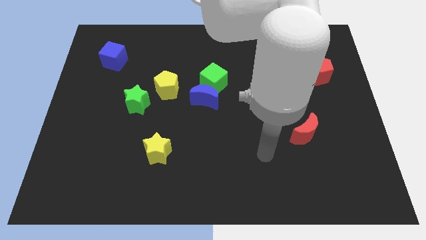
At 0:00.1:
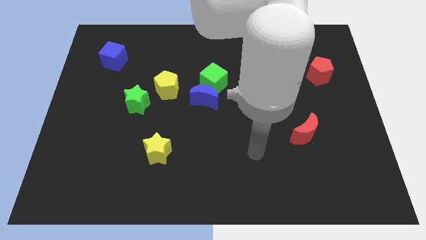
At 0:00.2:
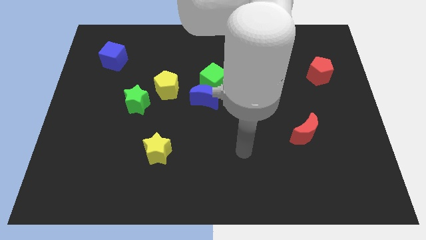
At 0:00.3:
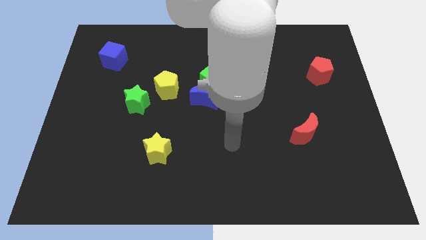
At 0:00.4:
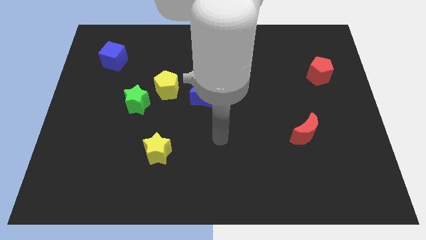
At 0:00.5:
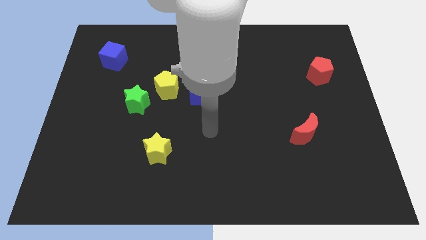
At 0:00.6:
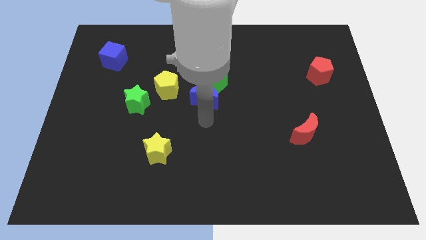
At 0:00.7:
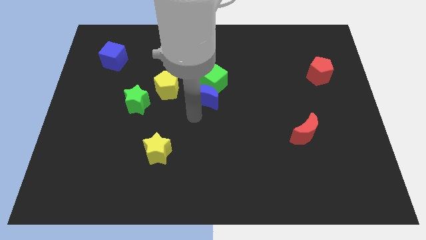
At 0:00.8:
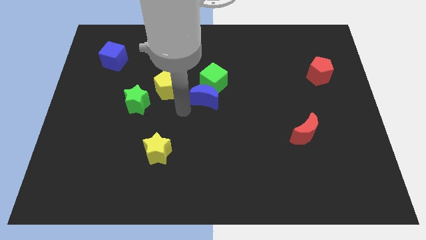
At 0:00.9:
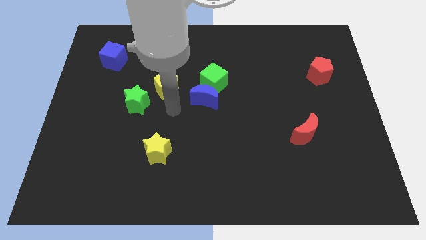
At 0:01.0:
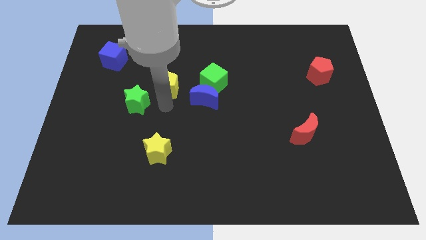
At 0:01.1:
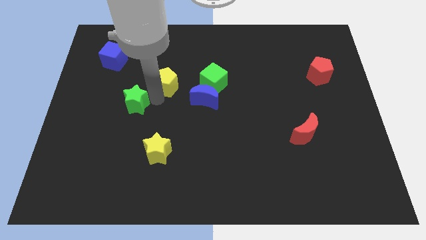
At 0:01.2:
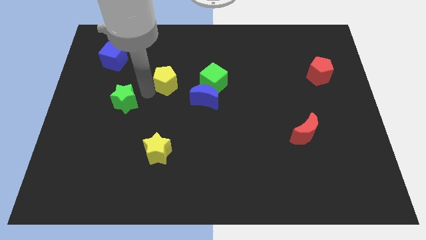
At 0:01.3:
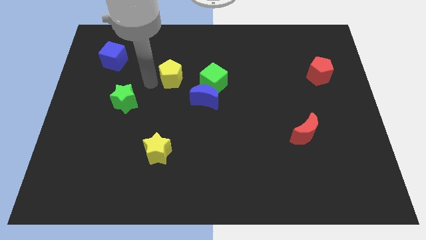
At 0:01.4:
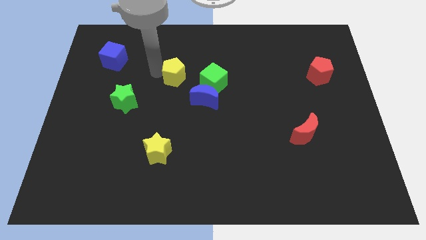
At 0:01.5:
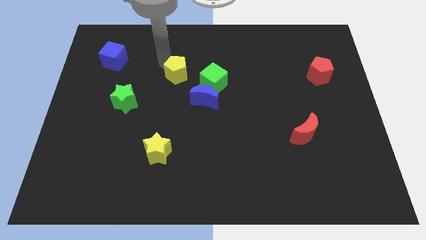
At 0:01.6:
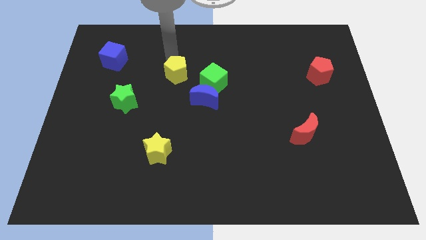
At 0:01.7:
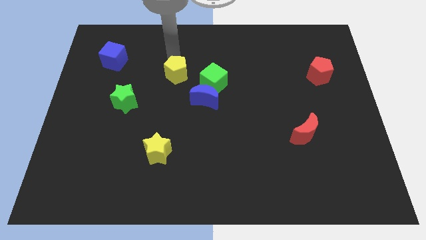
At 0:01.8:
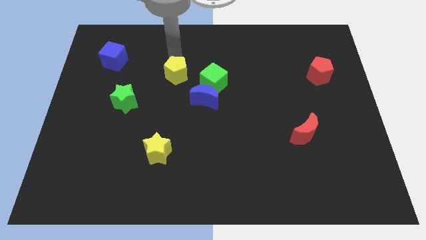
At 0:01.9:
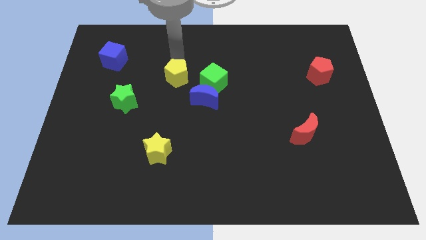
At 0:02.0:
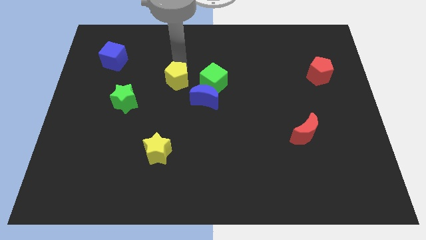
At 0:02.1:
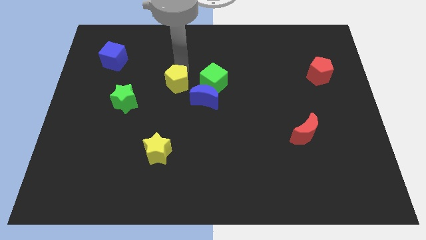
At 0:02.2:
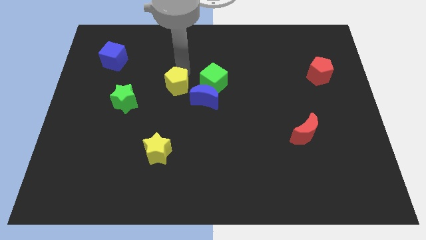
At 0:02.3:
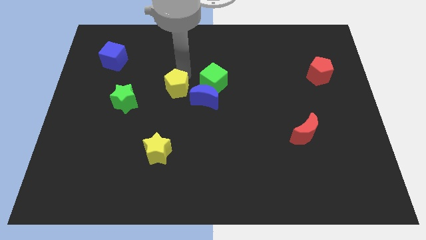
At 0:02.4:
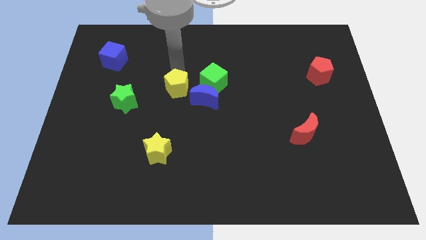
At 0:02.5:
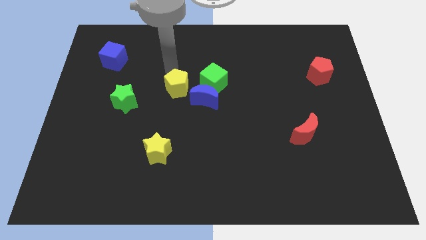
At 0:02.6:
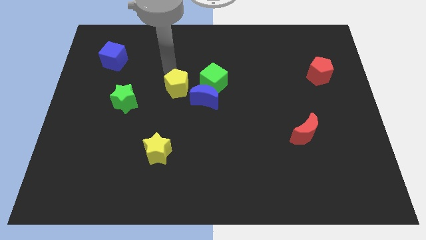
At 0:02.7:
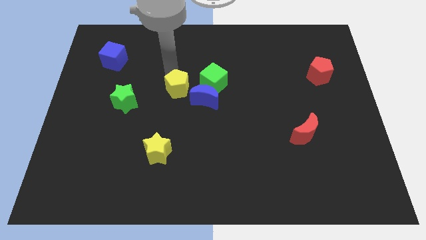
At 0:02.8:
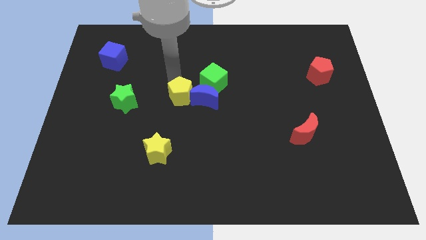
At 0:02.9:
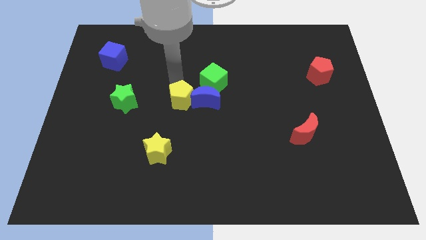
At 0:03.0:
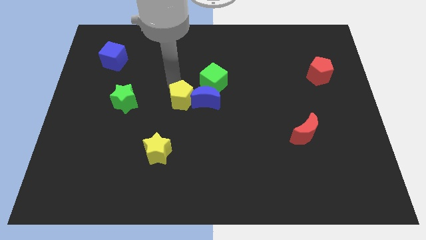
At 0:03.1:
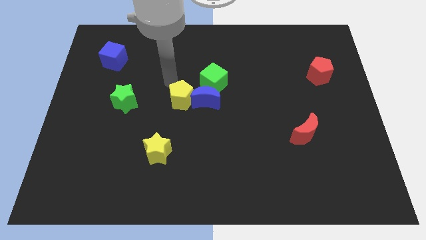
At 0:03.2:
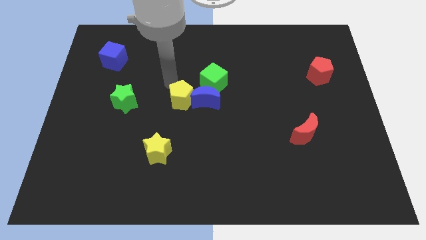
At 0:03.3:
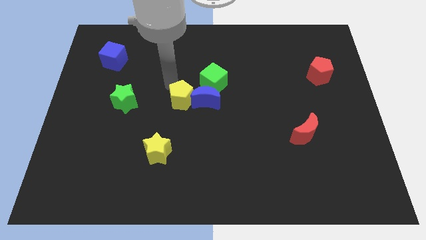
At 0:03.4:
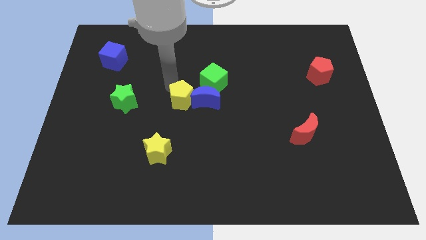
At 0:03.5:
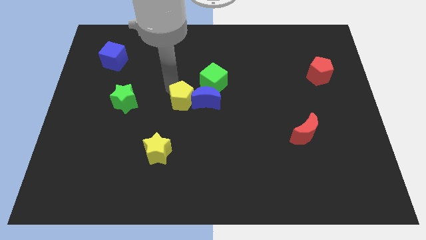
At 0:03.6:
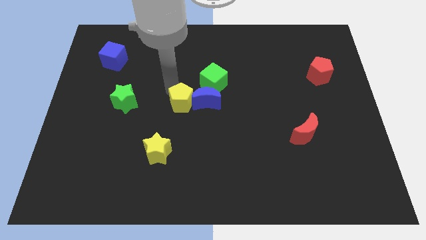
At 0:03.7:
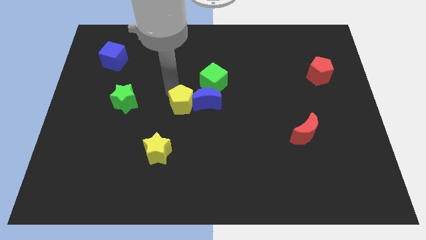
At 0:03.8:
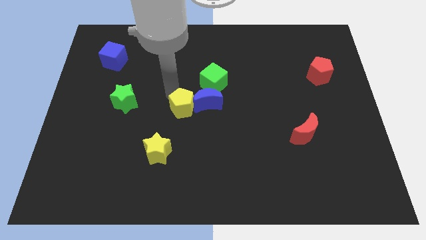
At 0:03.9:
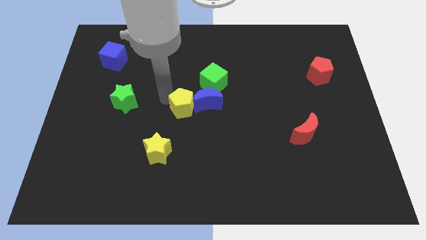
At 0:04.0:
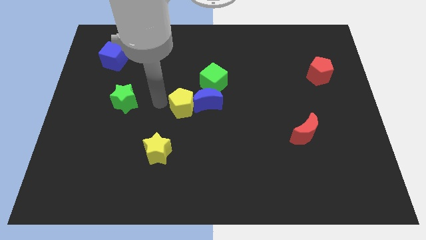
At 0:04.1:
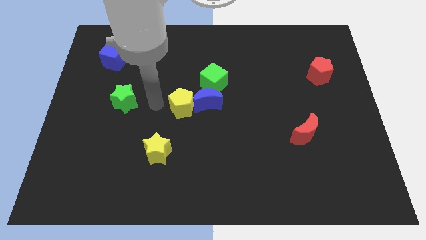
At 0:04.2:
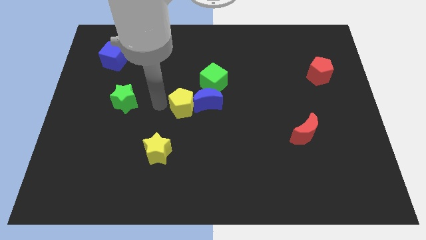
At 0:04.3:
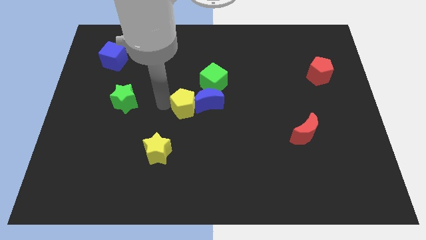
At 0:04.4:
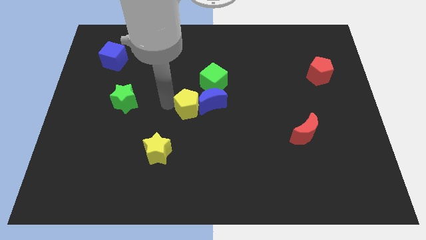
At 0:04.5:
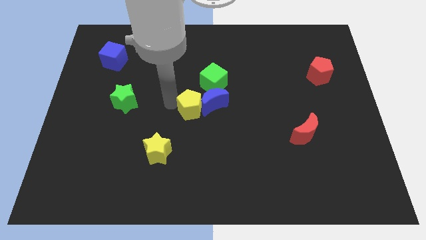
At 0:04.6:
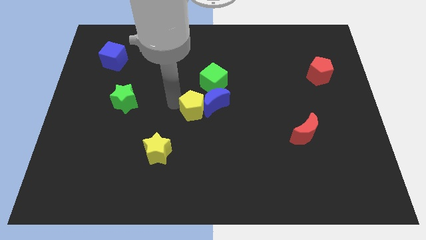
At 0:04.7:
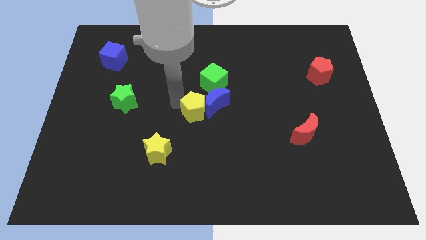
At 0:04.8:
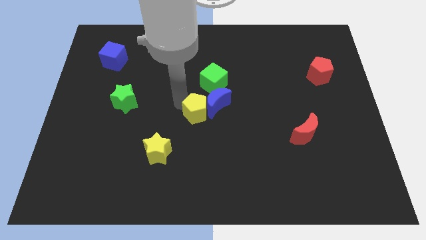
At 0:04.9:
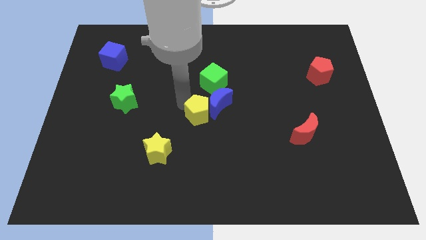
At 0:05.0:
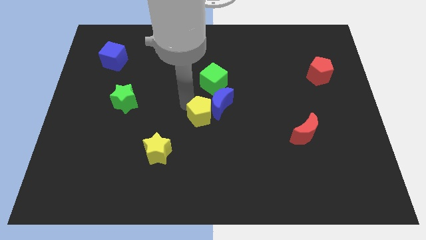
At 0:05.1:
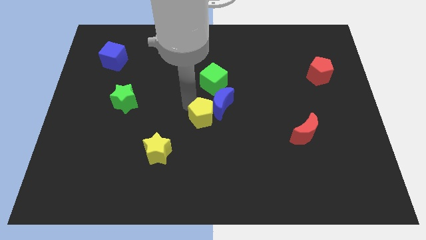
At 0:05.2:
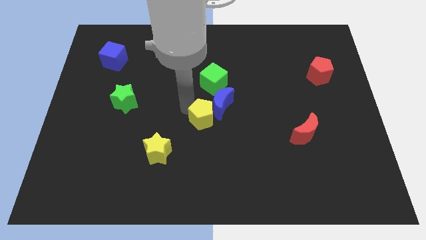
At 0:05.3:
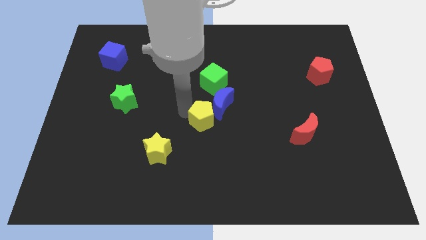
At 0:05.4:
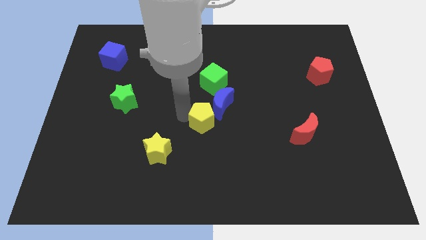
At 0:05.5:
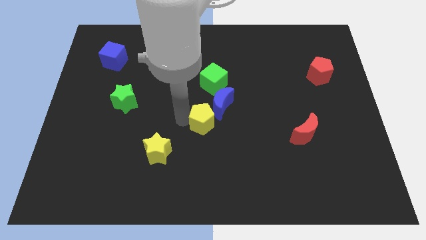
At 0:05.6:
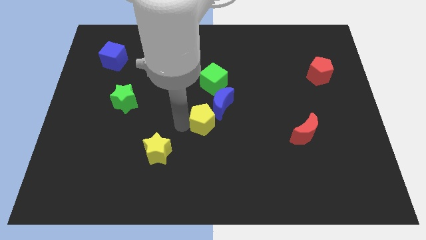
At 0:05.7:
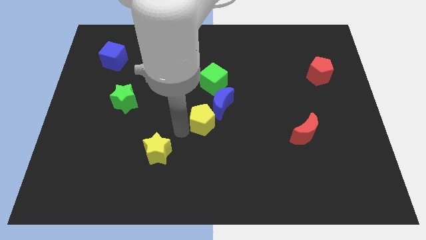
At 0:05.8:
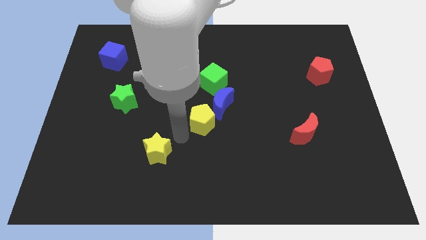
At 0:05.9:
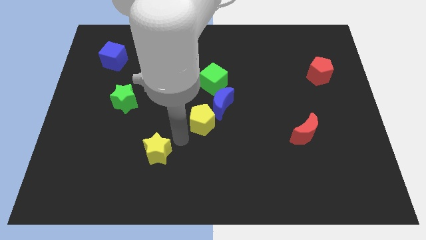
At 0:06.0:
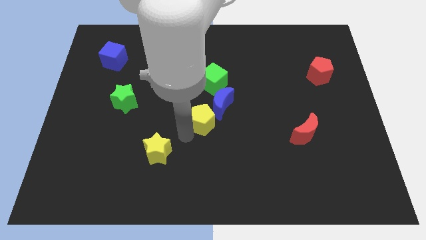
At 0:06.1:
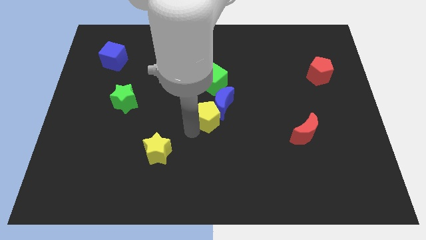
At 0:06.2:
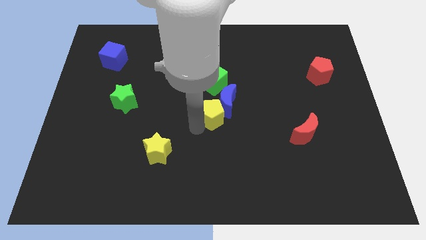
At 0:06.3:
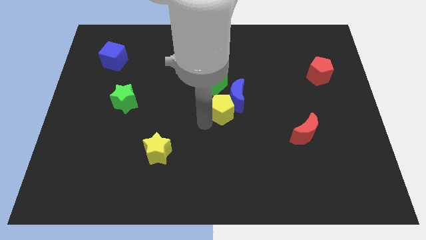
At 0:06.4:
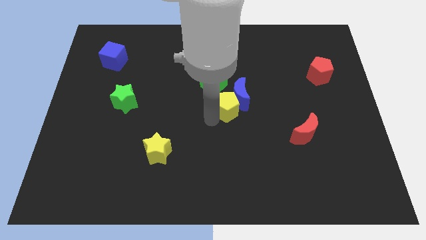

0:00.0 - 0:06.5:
slide the yellow pentagon to the bottom right side of the green cube

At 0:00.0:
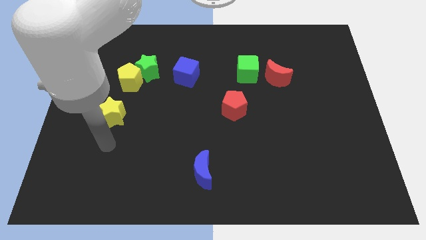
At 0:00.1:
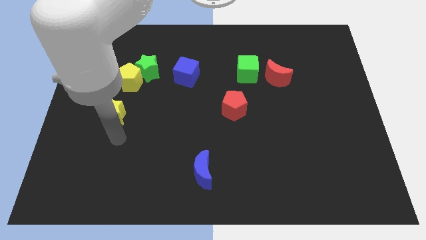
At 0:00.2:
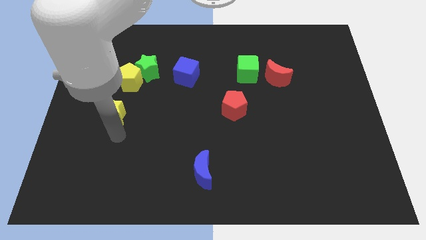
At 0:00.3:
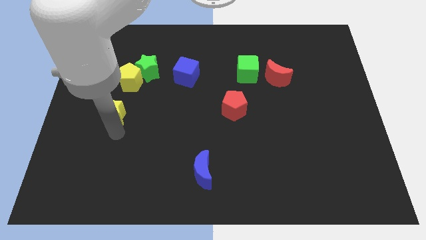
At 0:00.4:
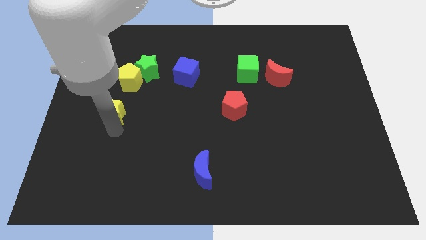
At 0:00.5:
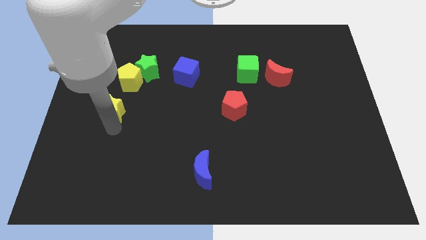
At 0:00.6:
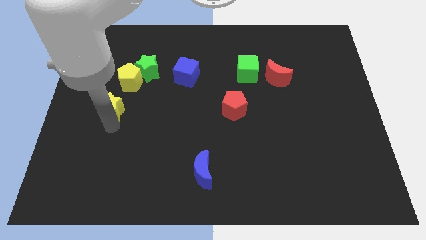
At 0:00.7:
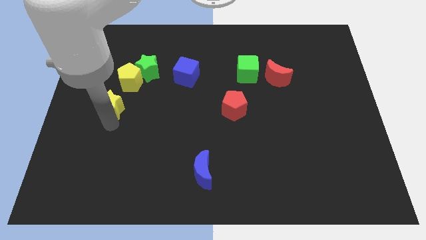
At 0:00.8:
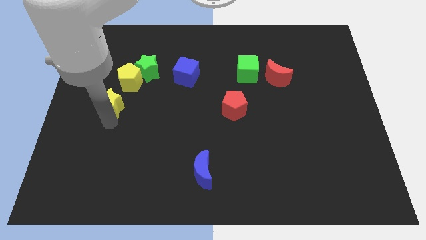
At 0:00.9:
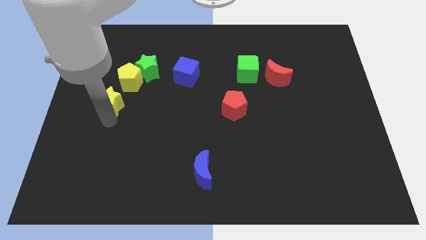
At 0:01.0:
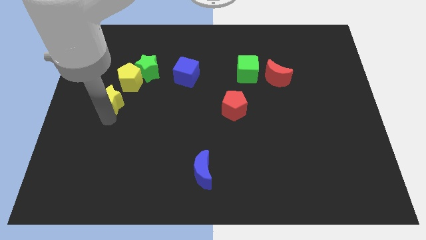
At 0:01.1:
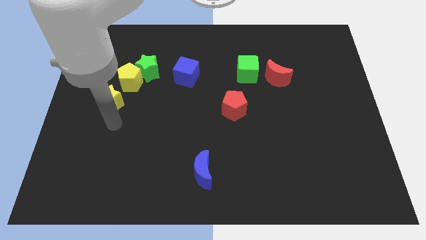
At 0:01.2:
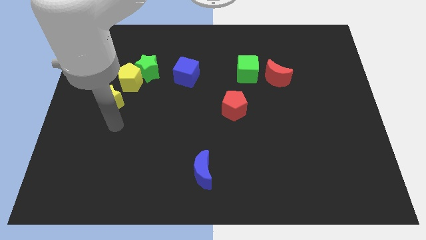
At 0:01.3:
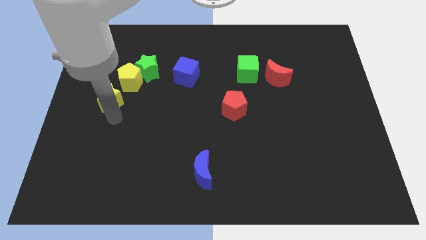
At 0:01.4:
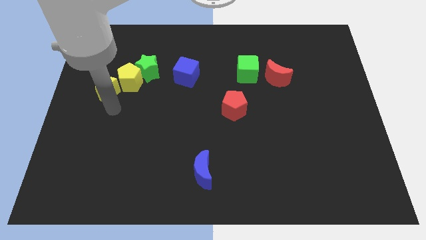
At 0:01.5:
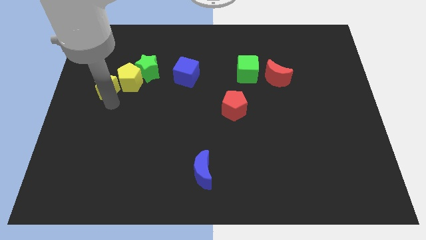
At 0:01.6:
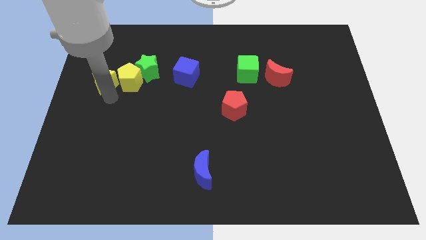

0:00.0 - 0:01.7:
push the yellow star to the left side of the green star
